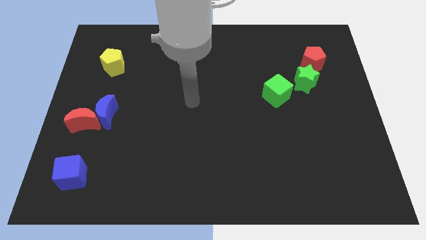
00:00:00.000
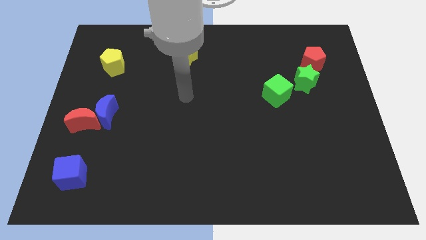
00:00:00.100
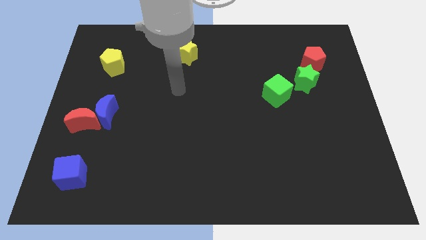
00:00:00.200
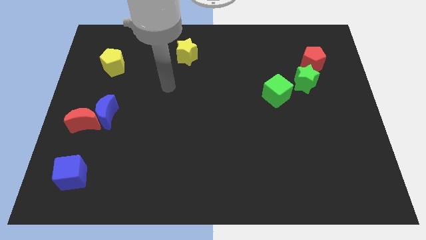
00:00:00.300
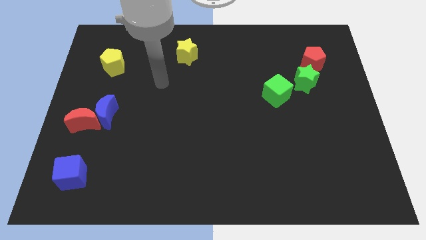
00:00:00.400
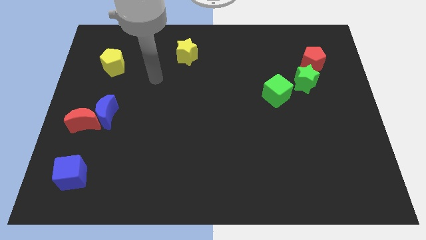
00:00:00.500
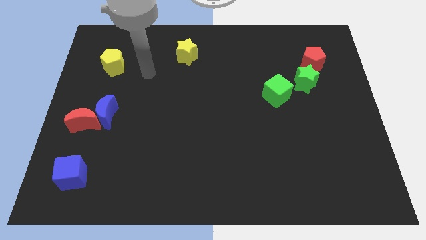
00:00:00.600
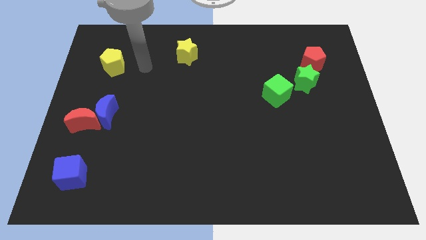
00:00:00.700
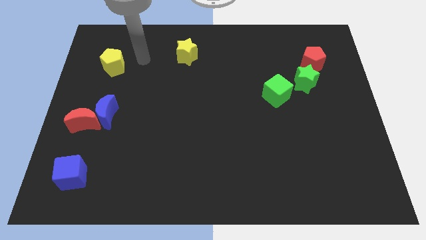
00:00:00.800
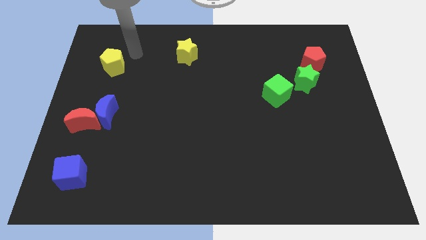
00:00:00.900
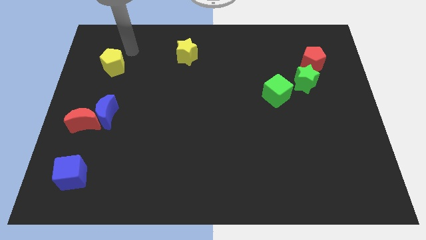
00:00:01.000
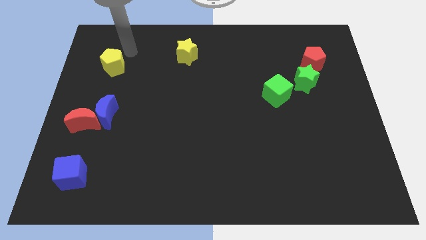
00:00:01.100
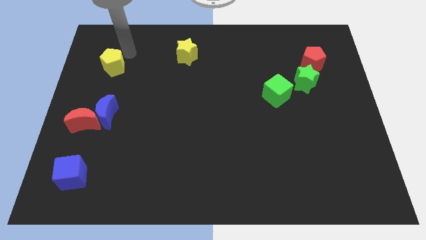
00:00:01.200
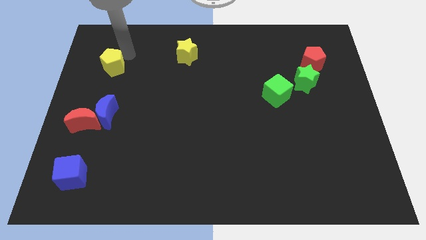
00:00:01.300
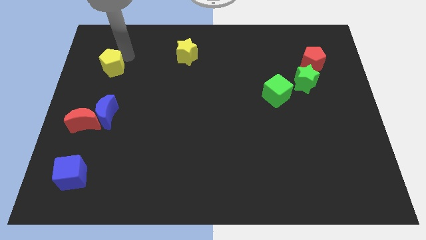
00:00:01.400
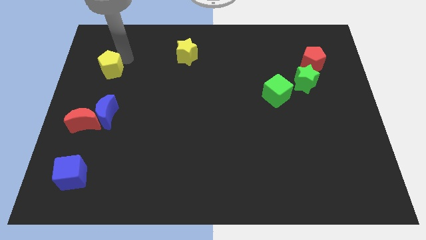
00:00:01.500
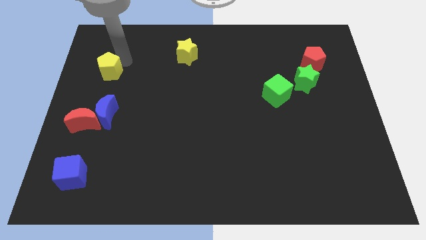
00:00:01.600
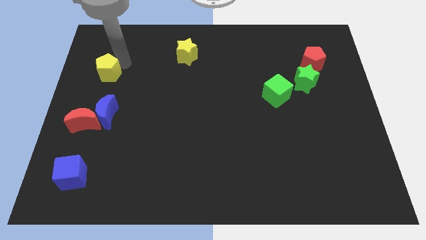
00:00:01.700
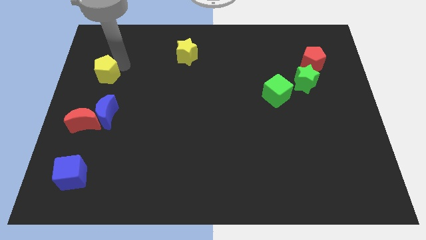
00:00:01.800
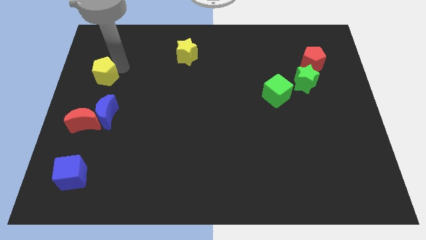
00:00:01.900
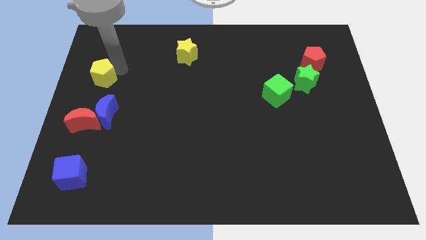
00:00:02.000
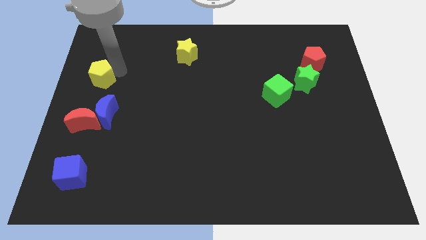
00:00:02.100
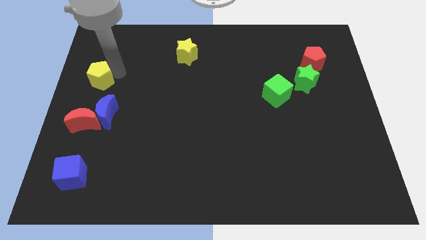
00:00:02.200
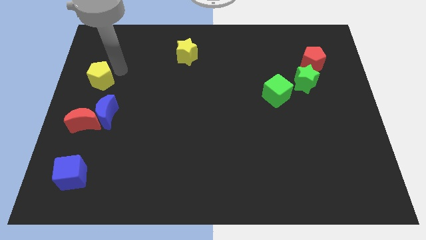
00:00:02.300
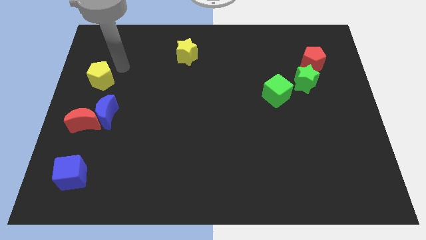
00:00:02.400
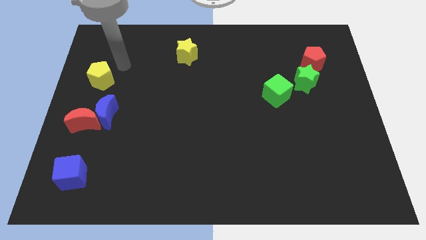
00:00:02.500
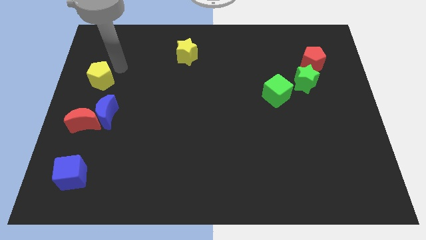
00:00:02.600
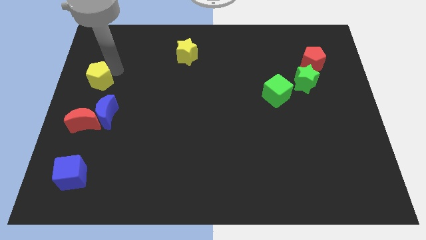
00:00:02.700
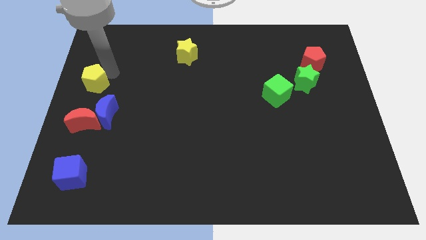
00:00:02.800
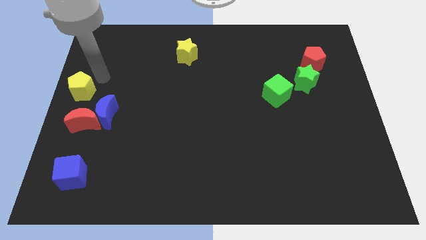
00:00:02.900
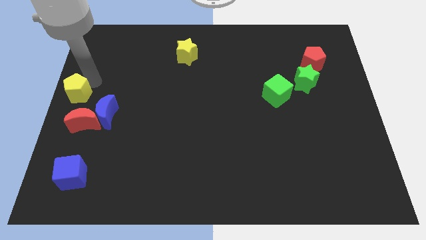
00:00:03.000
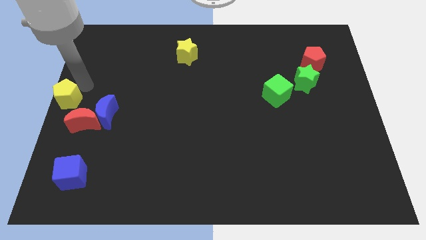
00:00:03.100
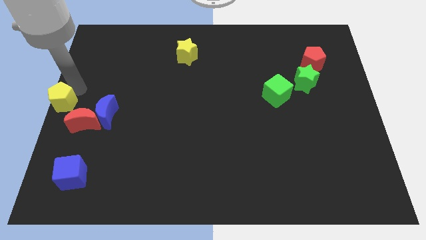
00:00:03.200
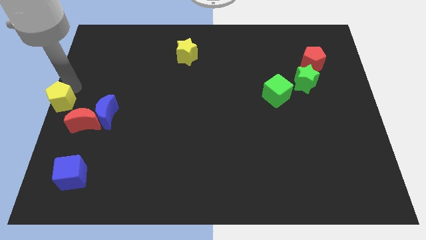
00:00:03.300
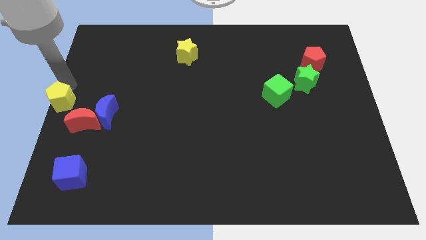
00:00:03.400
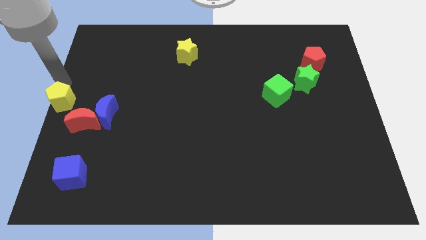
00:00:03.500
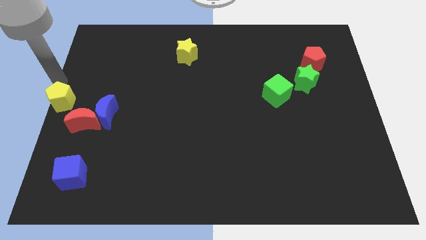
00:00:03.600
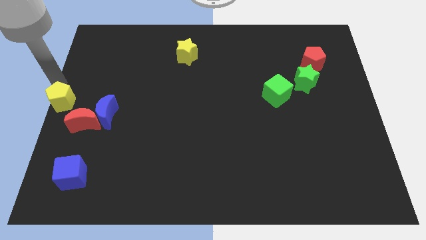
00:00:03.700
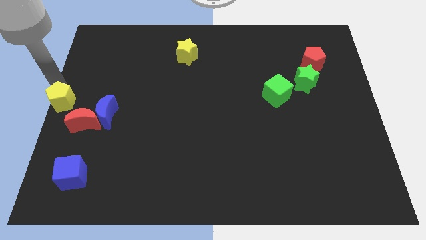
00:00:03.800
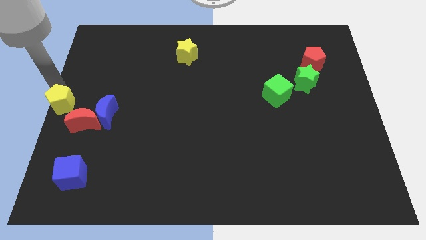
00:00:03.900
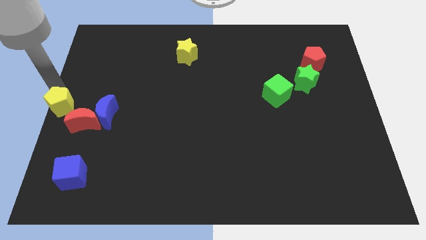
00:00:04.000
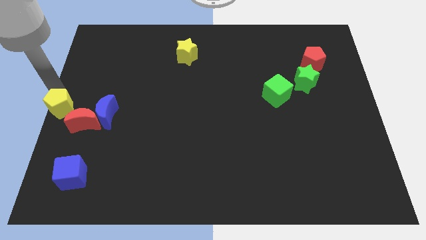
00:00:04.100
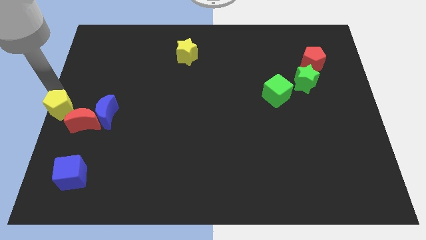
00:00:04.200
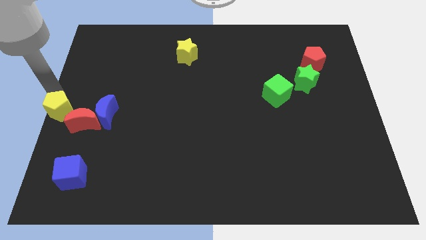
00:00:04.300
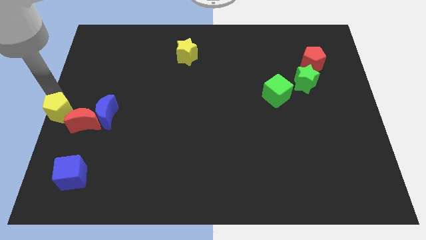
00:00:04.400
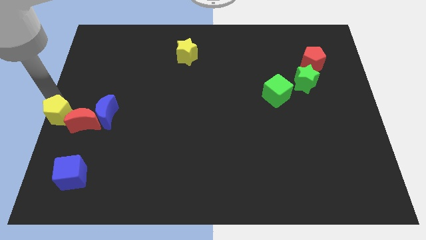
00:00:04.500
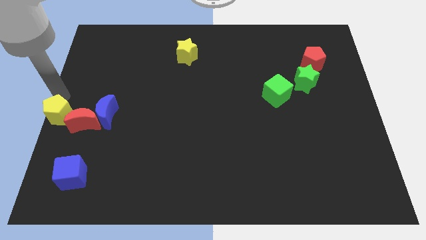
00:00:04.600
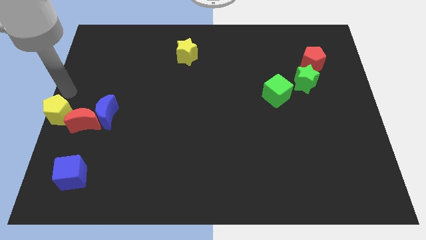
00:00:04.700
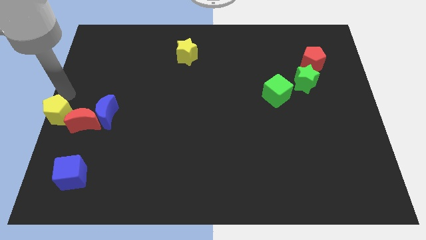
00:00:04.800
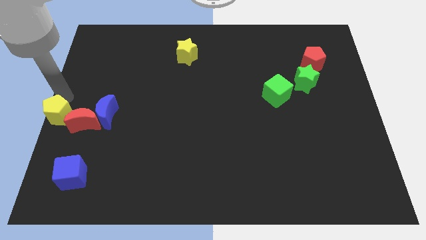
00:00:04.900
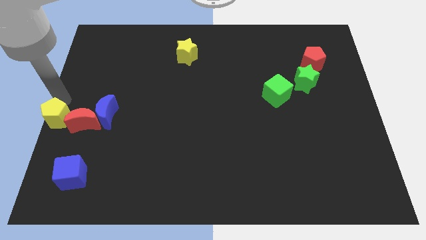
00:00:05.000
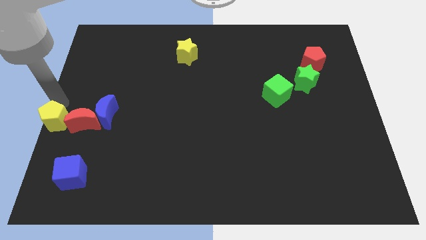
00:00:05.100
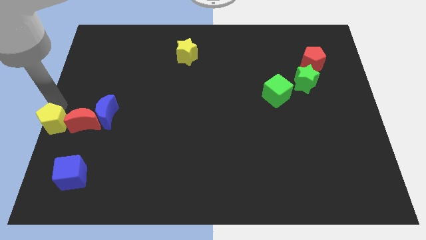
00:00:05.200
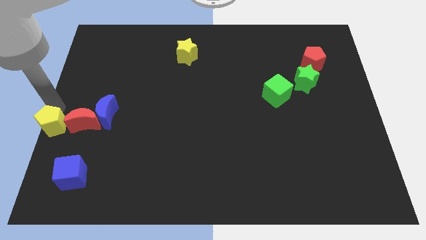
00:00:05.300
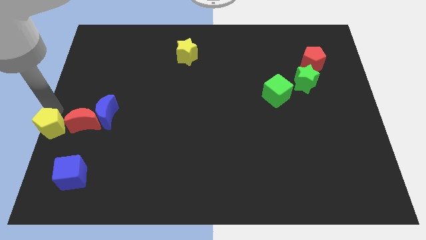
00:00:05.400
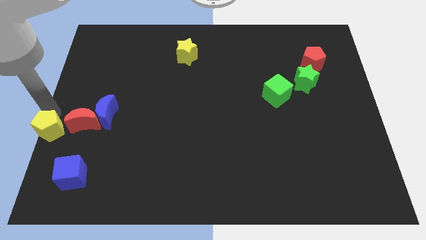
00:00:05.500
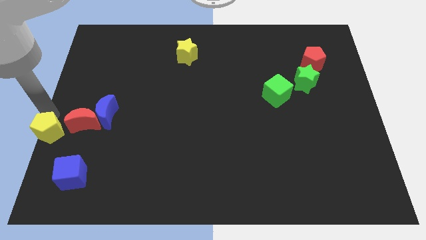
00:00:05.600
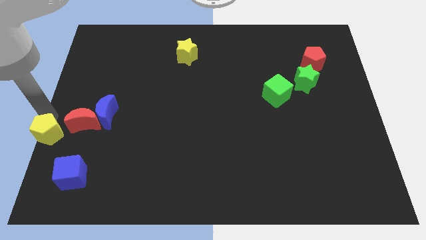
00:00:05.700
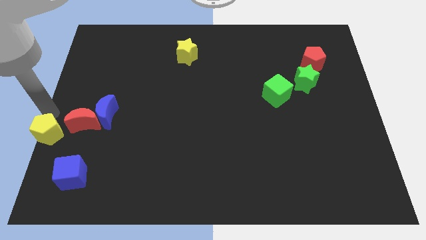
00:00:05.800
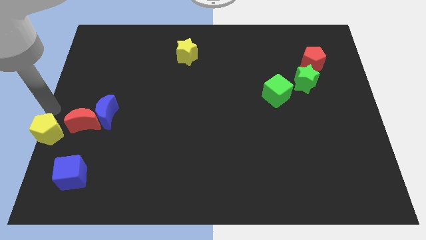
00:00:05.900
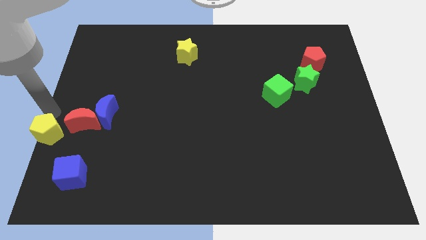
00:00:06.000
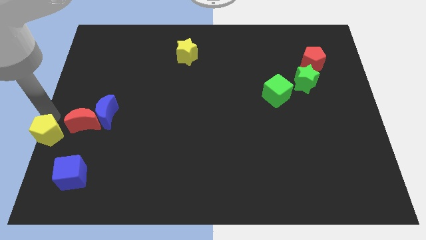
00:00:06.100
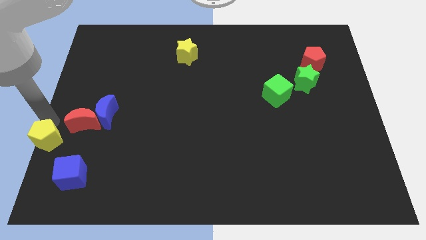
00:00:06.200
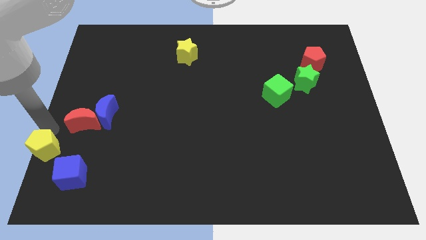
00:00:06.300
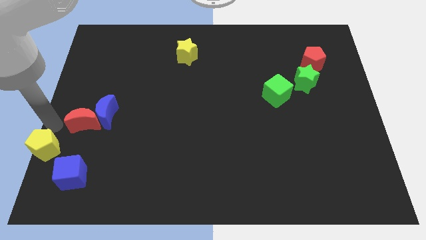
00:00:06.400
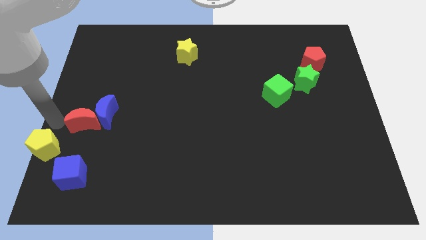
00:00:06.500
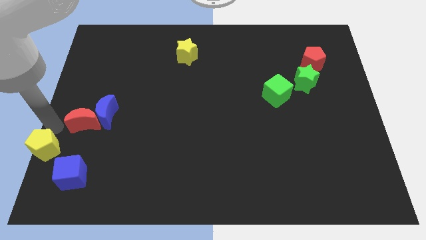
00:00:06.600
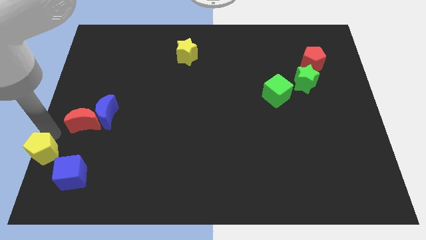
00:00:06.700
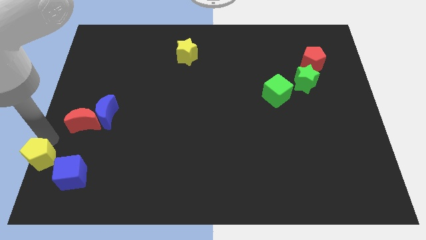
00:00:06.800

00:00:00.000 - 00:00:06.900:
slide the yellow pentagon to the bottom left corner
